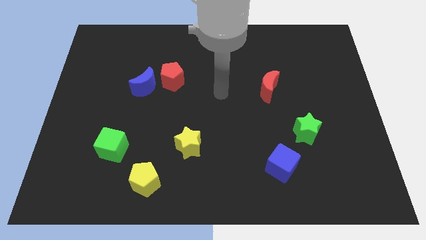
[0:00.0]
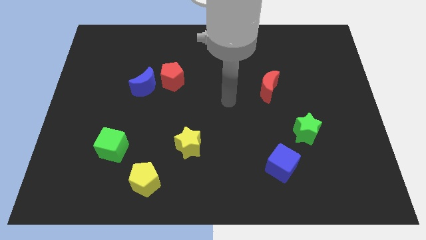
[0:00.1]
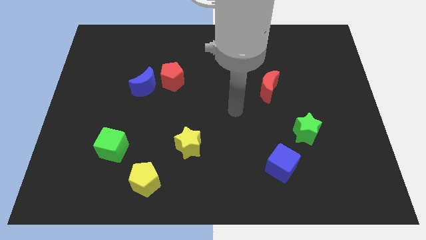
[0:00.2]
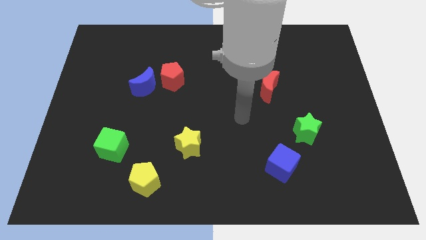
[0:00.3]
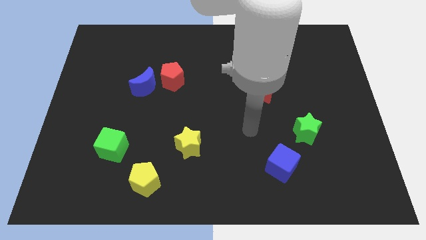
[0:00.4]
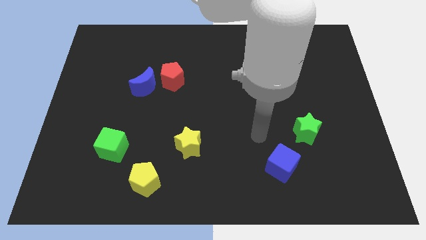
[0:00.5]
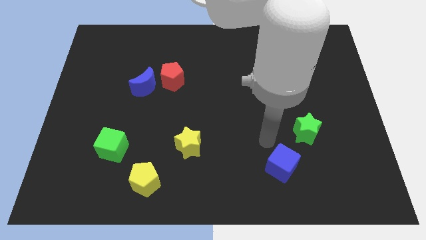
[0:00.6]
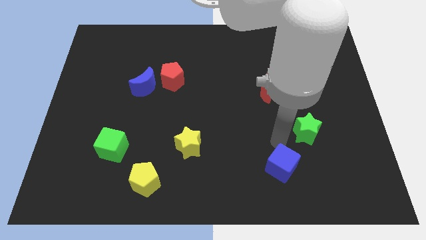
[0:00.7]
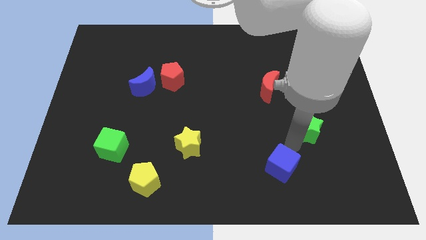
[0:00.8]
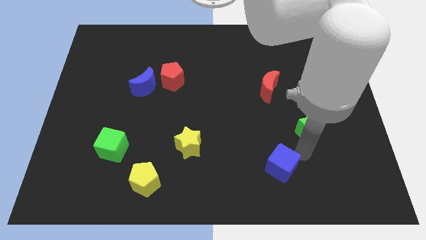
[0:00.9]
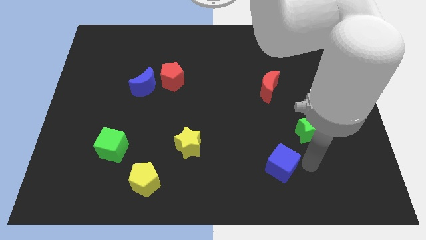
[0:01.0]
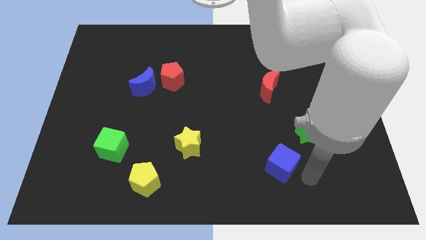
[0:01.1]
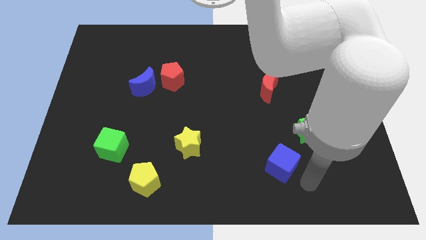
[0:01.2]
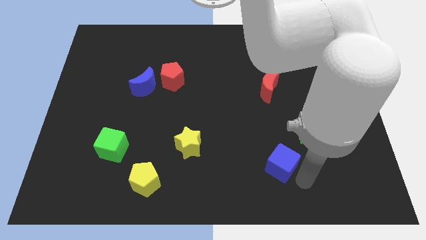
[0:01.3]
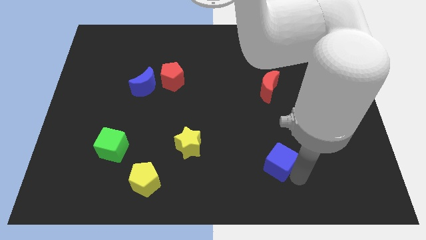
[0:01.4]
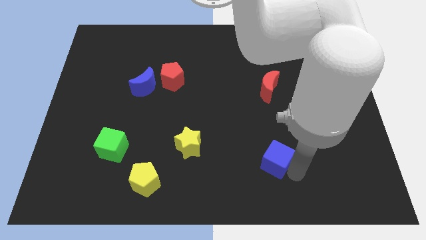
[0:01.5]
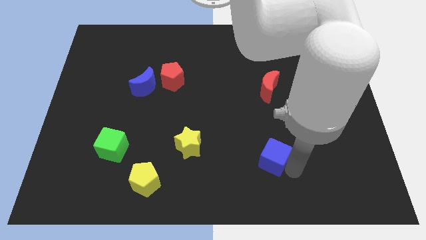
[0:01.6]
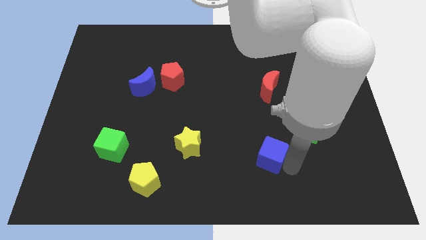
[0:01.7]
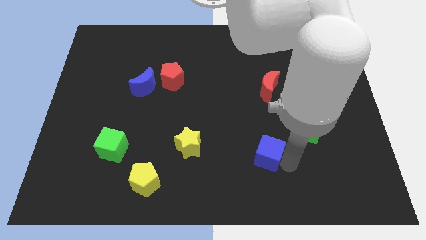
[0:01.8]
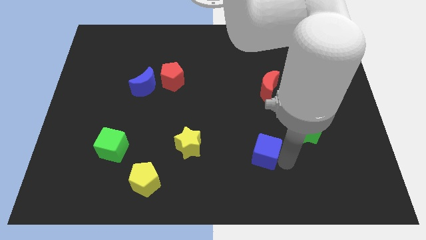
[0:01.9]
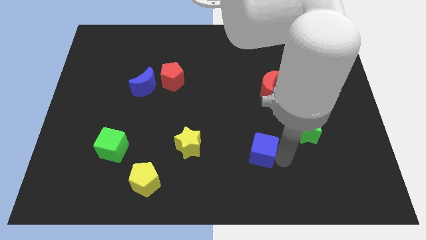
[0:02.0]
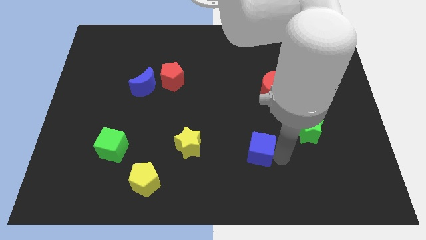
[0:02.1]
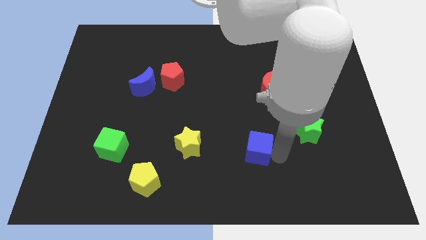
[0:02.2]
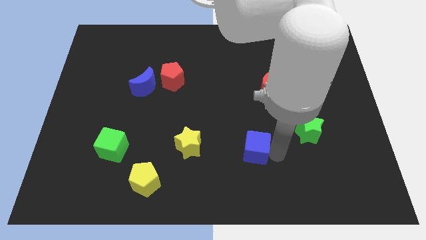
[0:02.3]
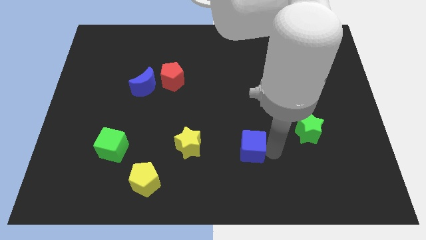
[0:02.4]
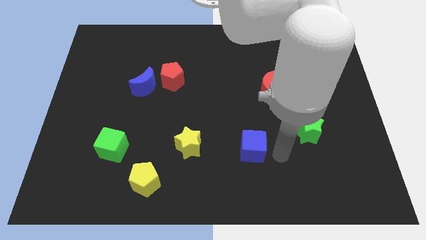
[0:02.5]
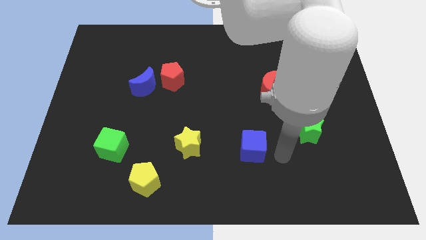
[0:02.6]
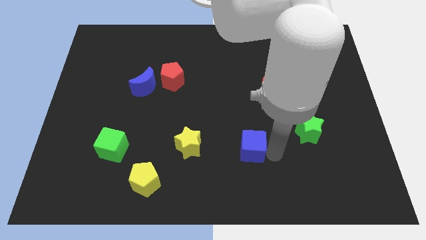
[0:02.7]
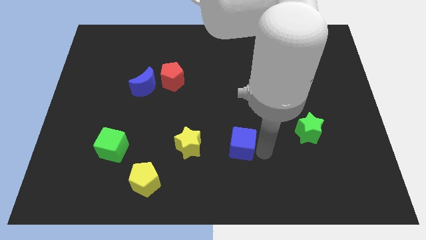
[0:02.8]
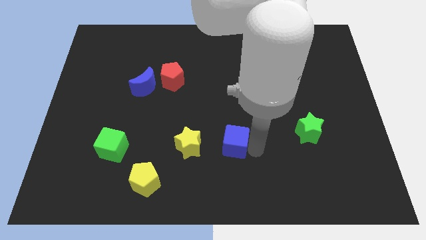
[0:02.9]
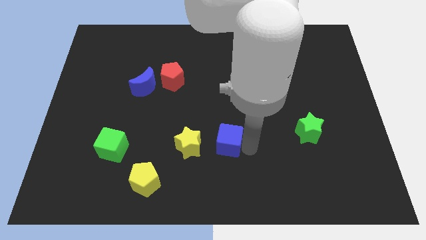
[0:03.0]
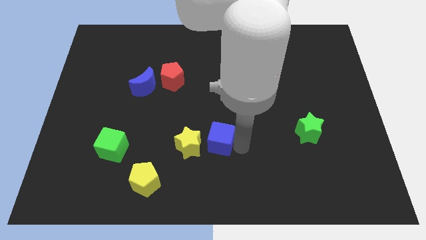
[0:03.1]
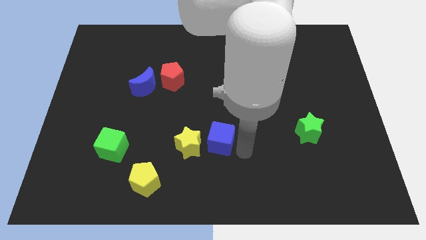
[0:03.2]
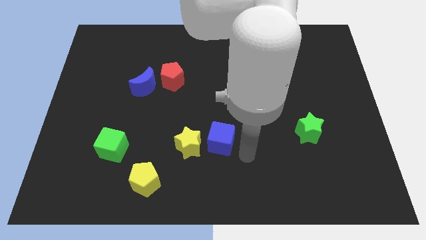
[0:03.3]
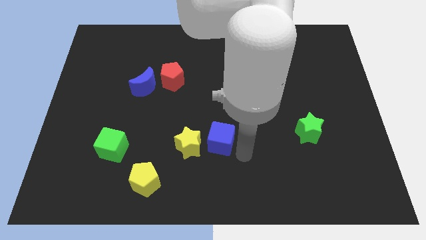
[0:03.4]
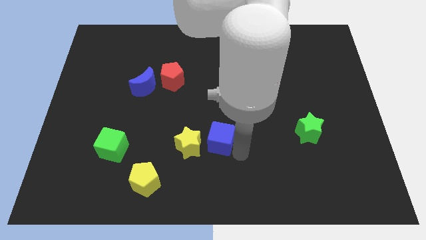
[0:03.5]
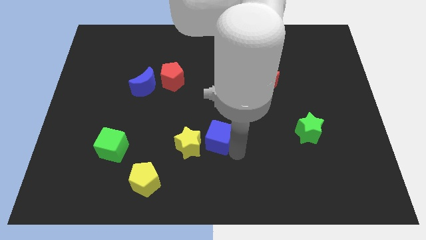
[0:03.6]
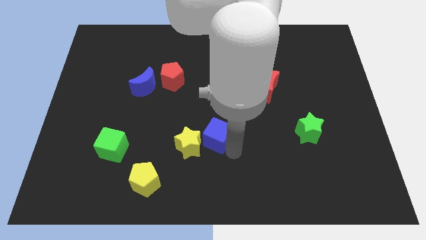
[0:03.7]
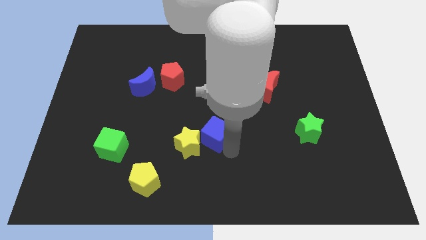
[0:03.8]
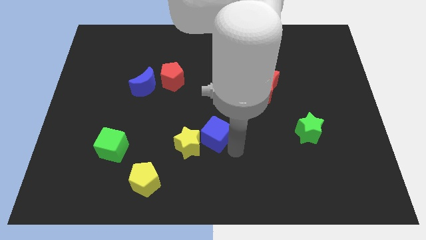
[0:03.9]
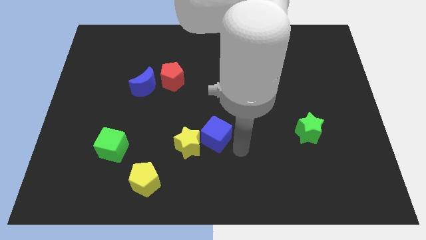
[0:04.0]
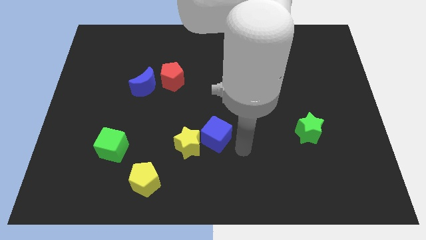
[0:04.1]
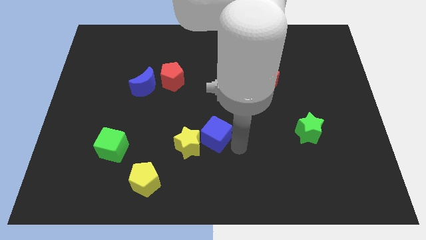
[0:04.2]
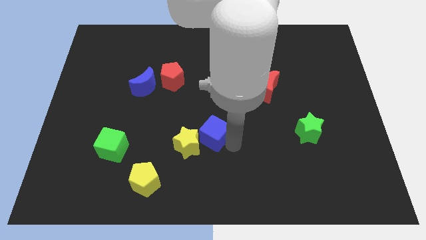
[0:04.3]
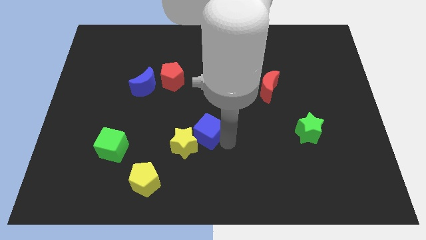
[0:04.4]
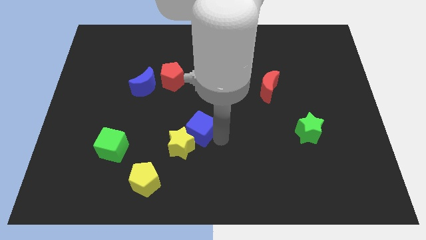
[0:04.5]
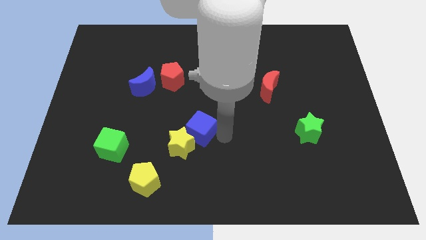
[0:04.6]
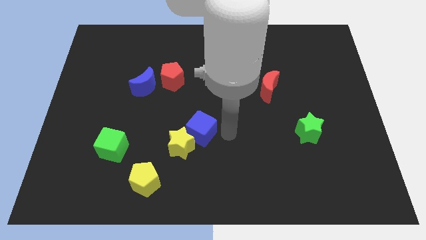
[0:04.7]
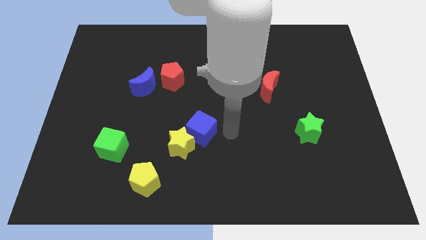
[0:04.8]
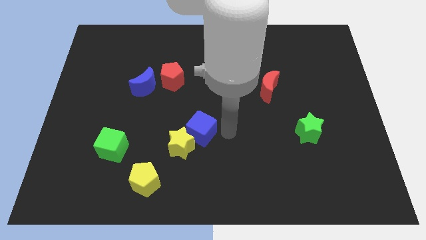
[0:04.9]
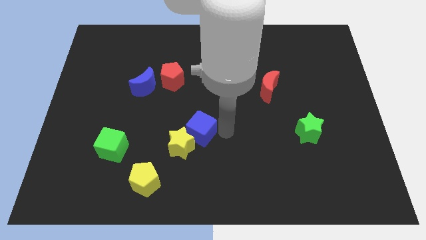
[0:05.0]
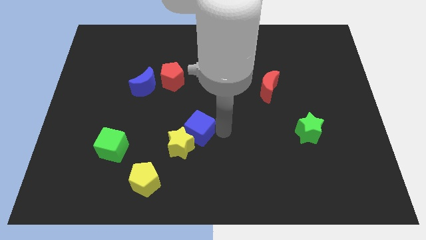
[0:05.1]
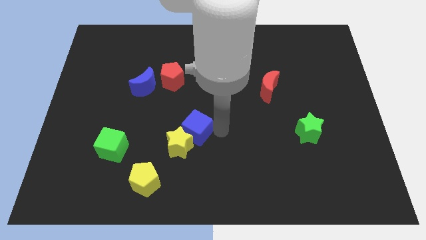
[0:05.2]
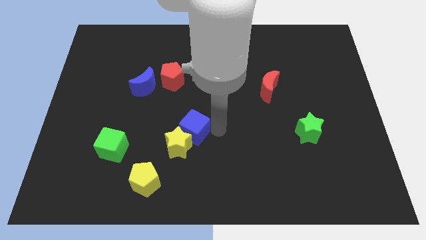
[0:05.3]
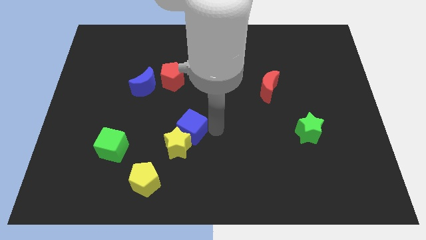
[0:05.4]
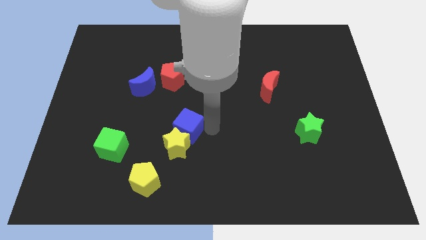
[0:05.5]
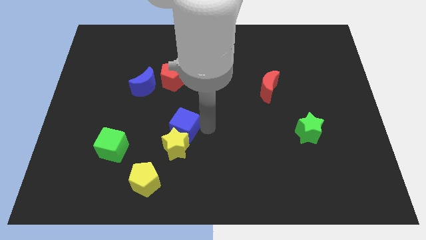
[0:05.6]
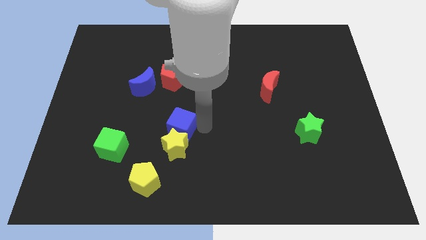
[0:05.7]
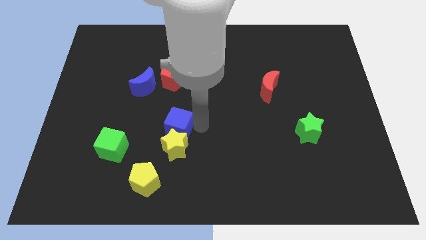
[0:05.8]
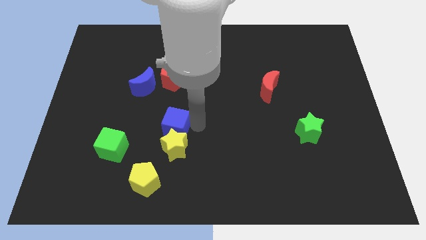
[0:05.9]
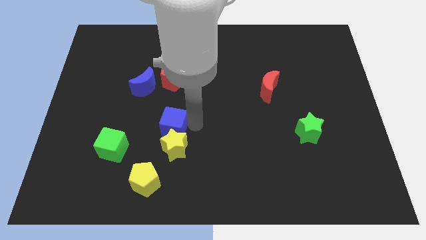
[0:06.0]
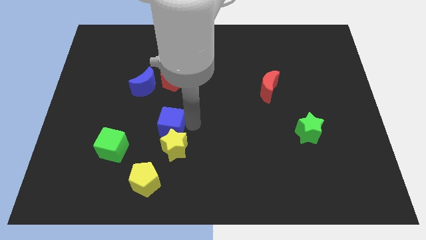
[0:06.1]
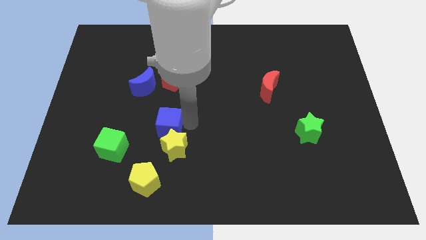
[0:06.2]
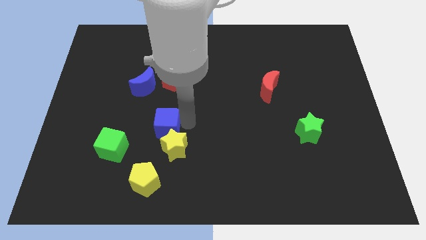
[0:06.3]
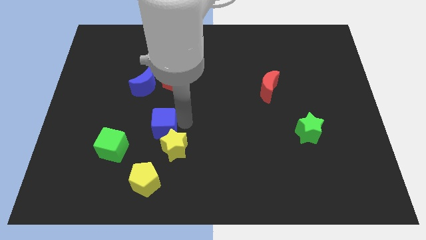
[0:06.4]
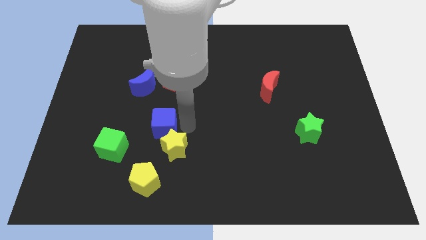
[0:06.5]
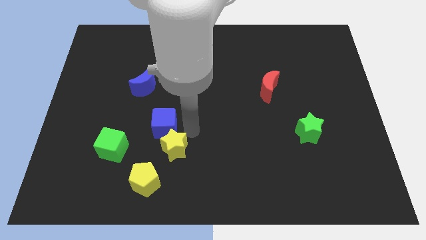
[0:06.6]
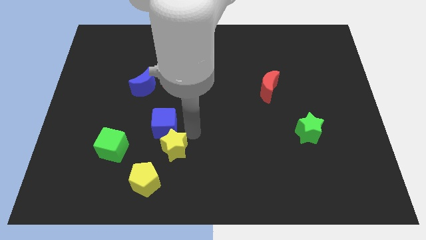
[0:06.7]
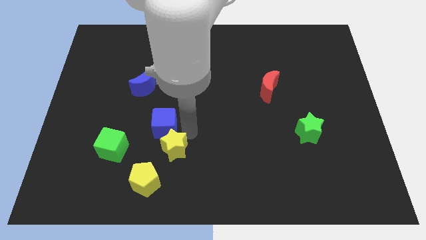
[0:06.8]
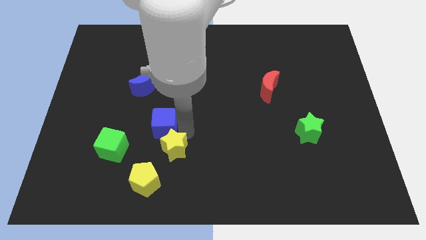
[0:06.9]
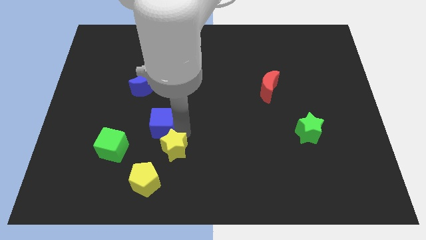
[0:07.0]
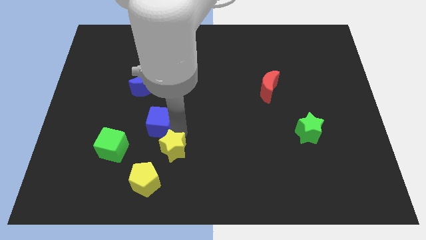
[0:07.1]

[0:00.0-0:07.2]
push the blue cube to the bottom of the blue moon
